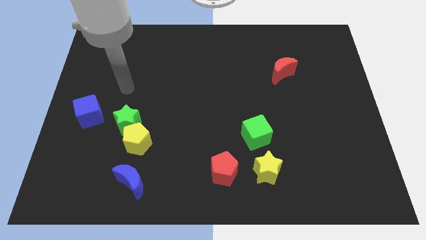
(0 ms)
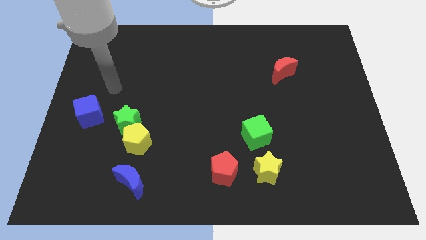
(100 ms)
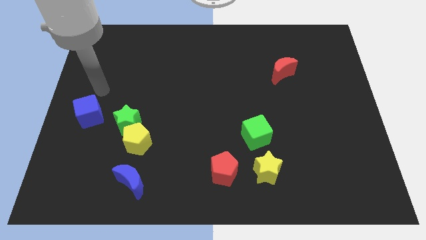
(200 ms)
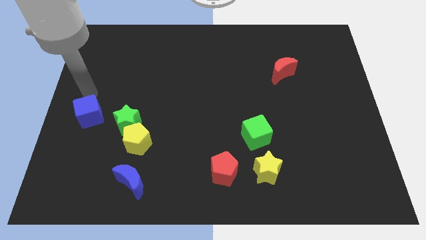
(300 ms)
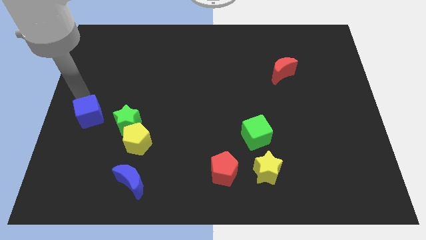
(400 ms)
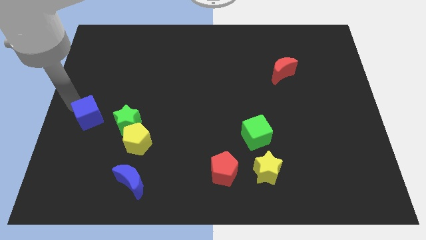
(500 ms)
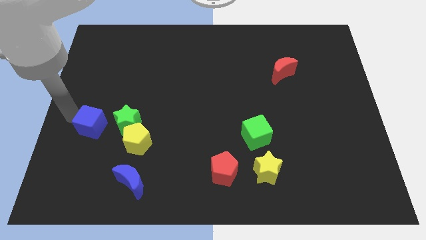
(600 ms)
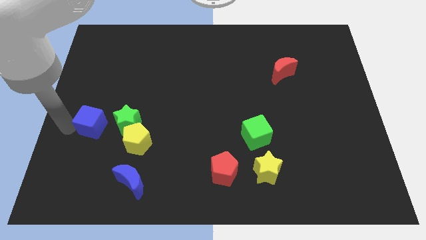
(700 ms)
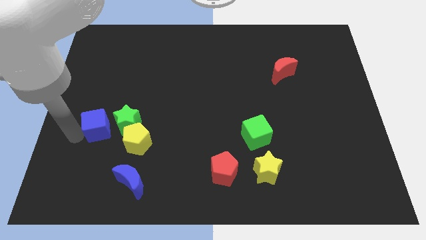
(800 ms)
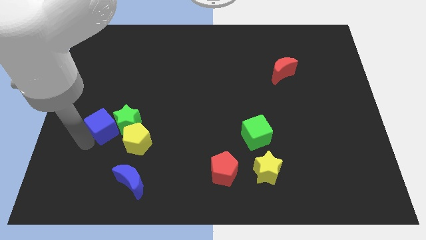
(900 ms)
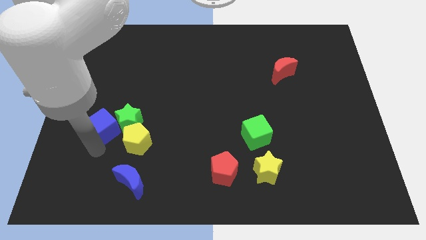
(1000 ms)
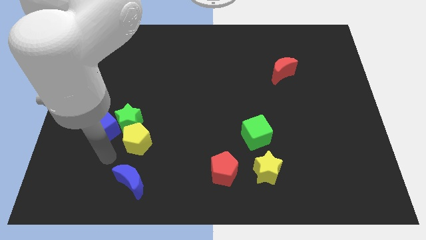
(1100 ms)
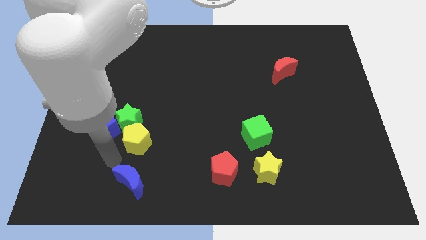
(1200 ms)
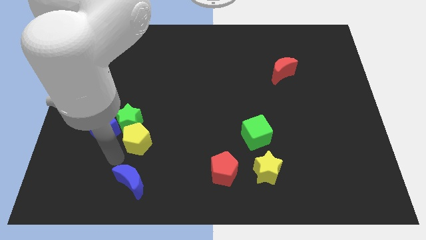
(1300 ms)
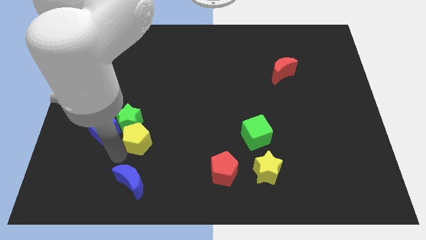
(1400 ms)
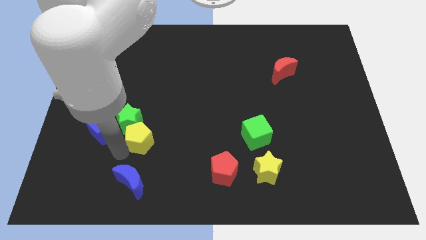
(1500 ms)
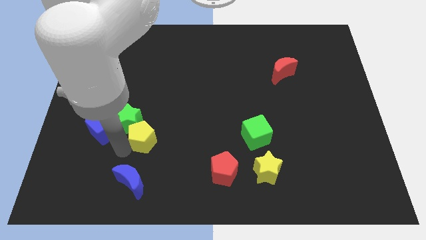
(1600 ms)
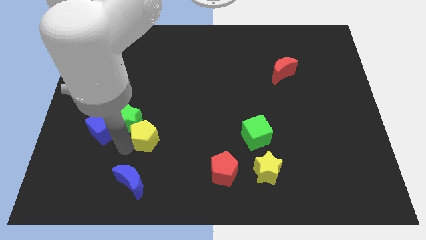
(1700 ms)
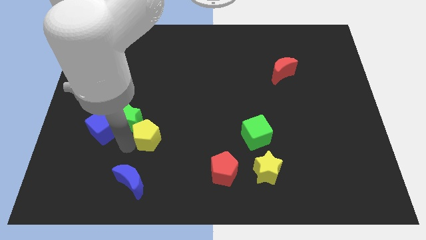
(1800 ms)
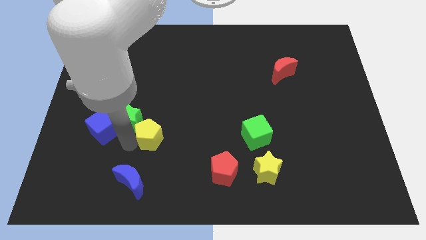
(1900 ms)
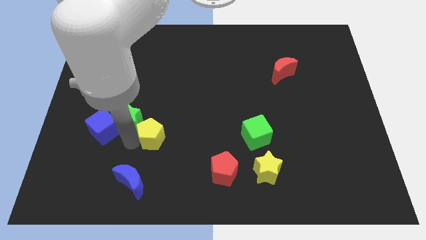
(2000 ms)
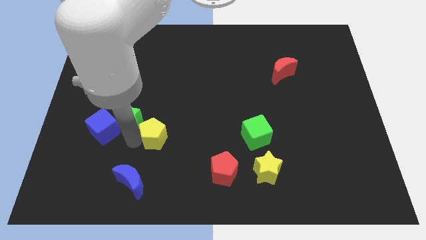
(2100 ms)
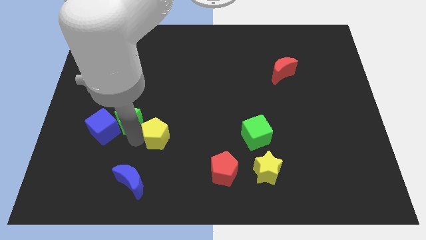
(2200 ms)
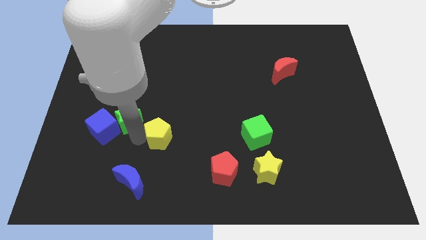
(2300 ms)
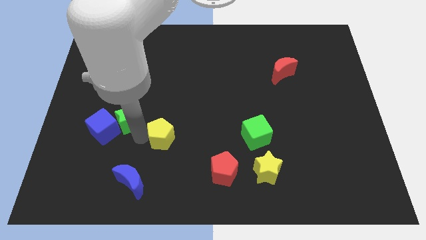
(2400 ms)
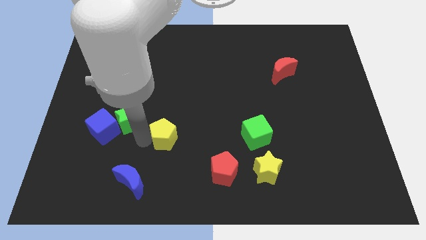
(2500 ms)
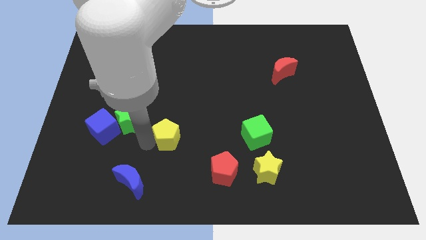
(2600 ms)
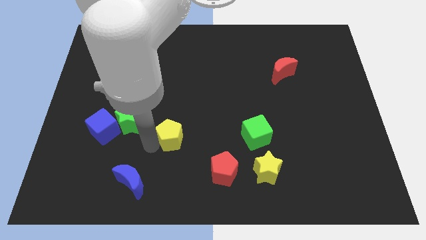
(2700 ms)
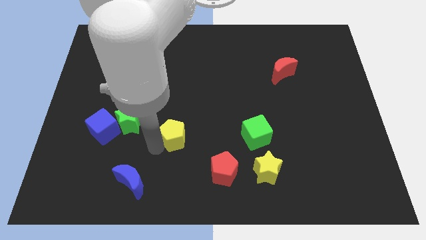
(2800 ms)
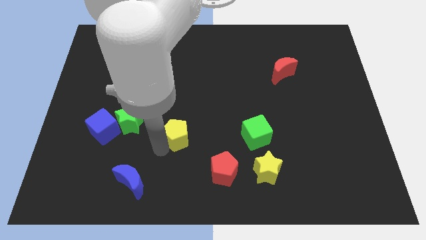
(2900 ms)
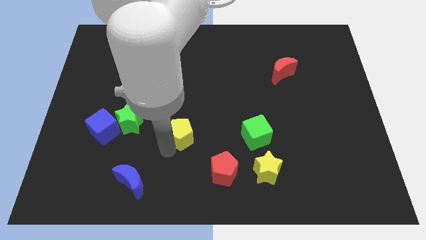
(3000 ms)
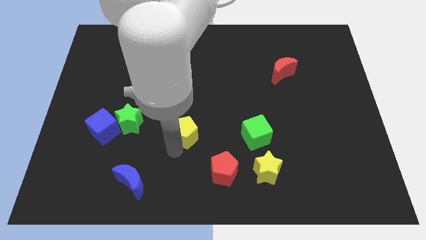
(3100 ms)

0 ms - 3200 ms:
push the yellow pentagon upwards and right a little bit

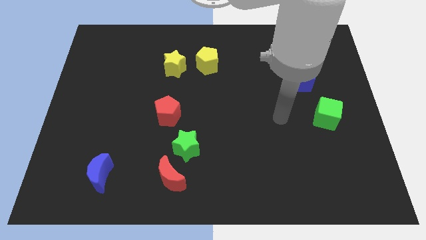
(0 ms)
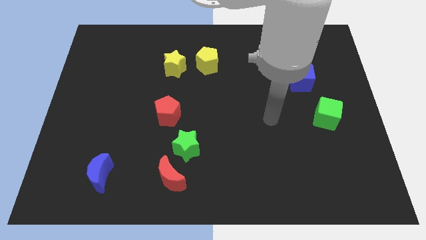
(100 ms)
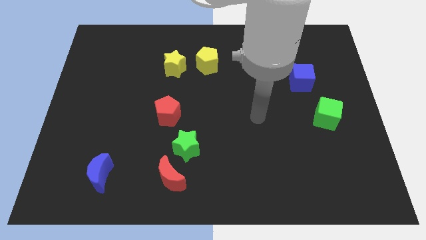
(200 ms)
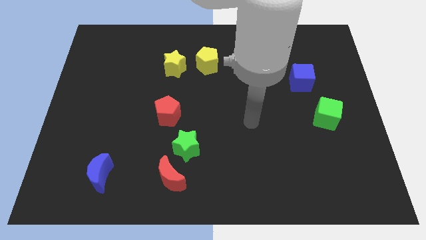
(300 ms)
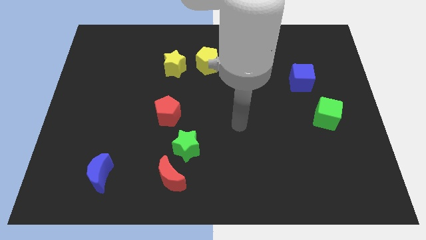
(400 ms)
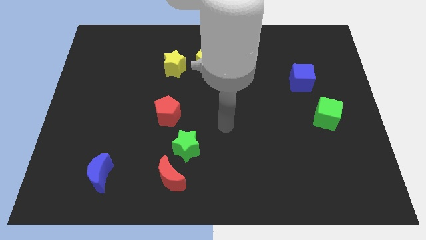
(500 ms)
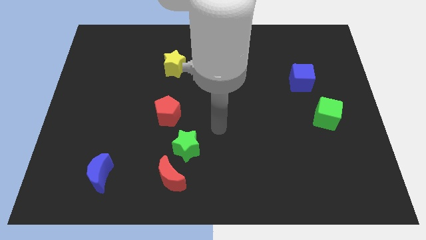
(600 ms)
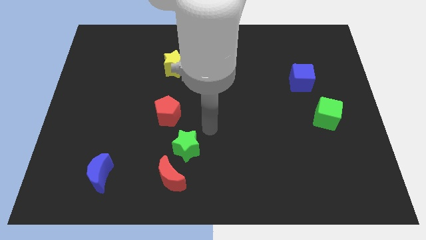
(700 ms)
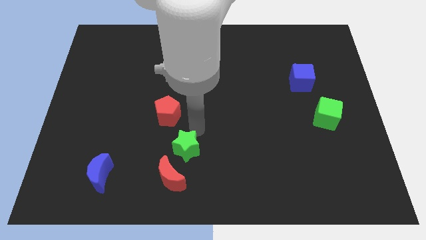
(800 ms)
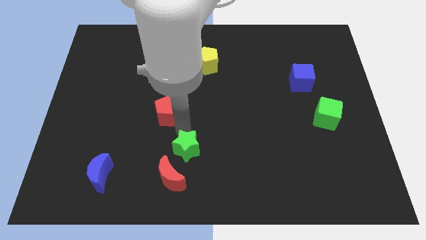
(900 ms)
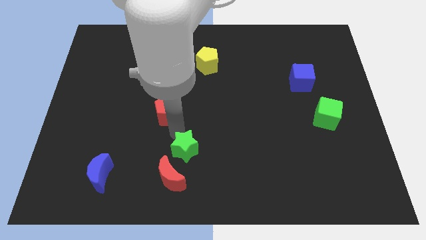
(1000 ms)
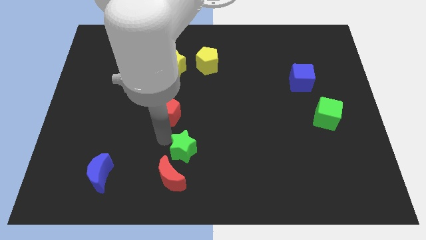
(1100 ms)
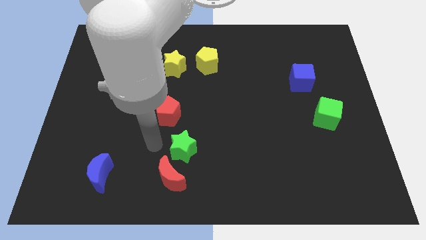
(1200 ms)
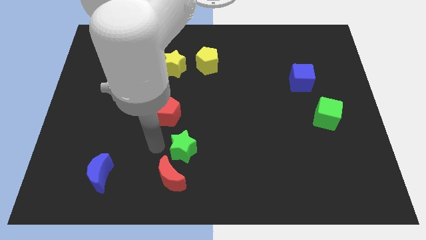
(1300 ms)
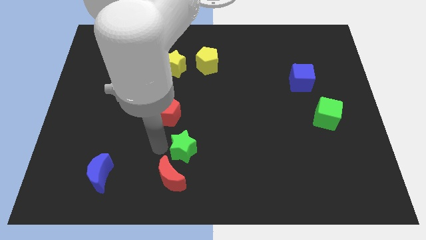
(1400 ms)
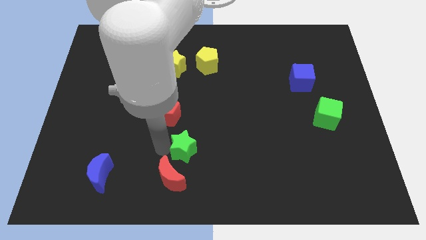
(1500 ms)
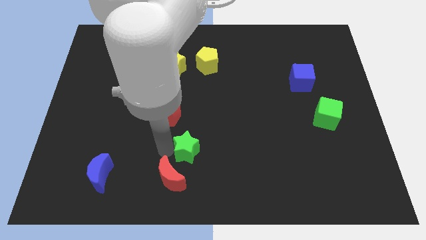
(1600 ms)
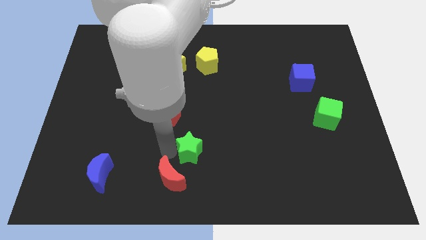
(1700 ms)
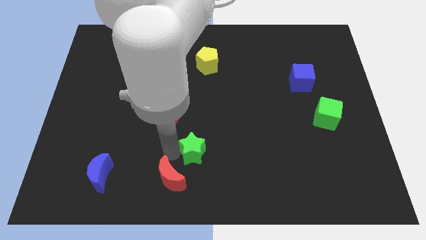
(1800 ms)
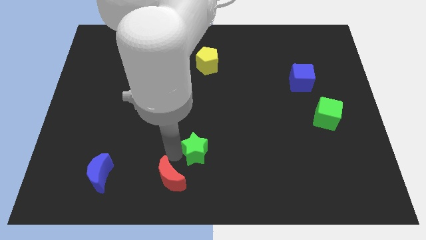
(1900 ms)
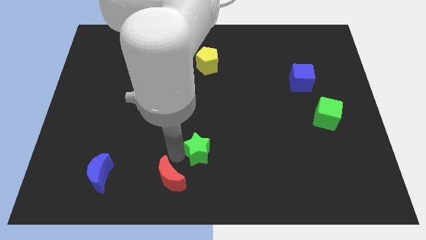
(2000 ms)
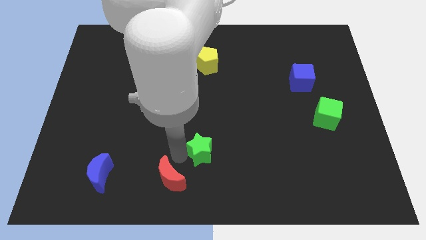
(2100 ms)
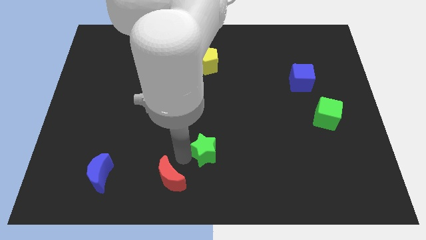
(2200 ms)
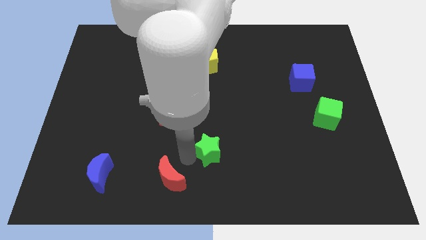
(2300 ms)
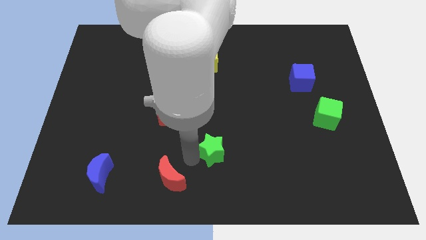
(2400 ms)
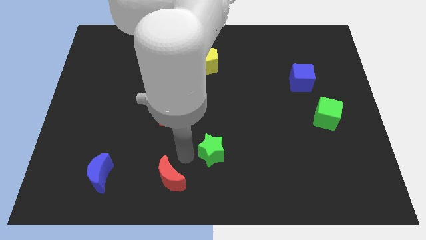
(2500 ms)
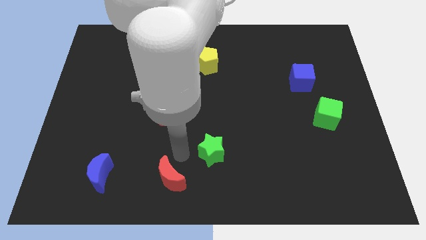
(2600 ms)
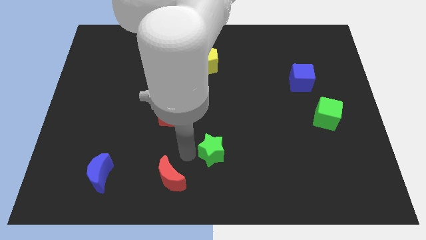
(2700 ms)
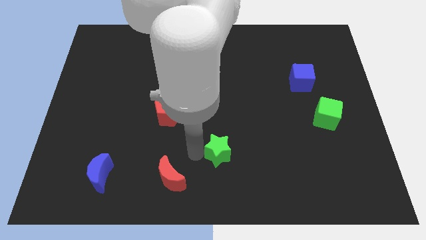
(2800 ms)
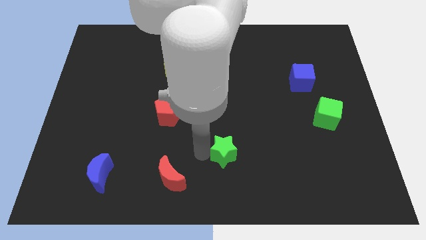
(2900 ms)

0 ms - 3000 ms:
slightly move the green star to the right

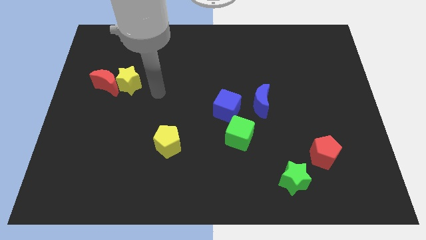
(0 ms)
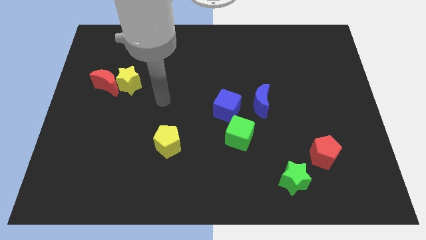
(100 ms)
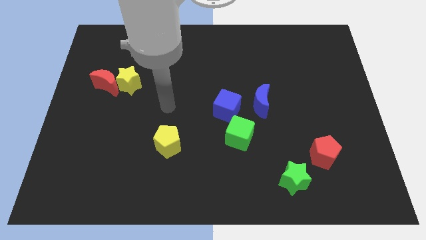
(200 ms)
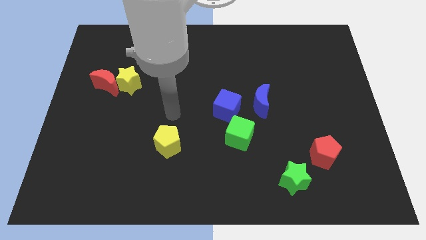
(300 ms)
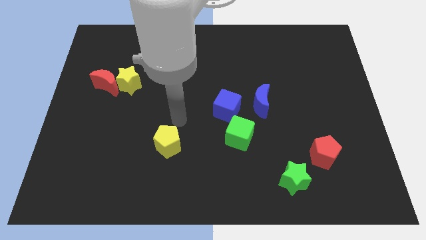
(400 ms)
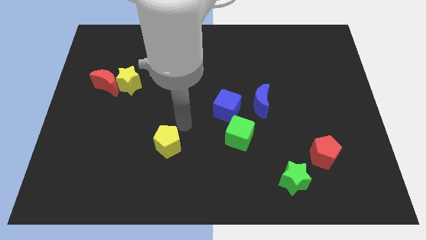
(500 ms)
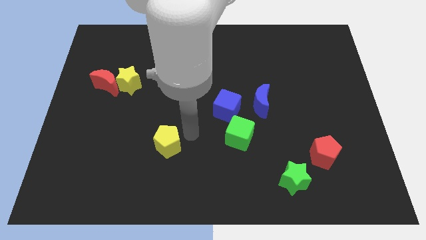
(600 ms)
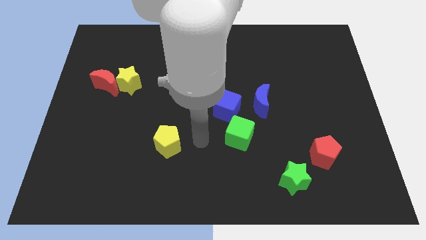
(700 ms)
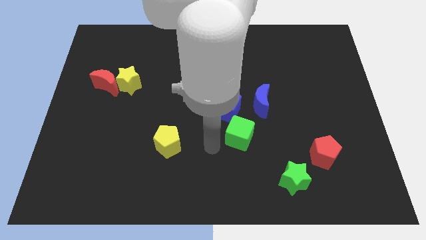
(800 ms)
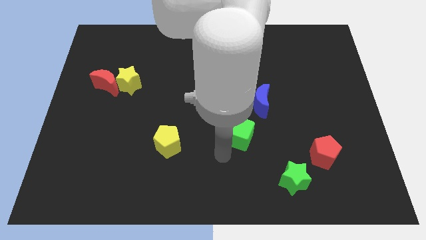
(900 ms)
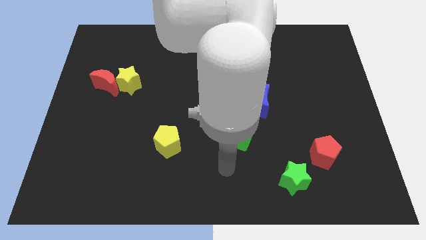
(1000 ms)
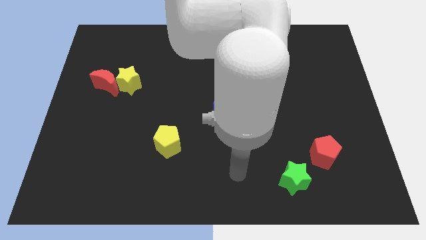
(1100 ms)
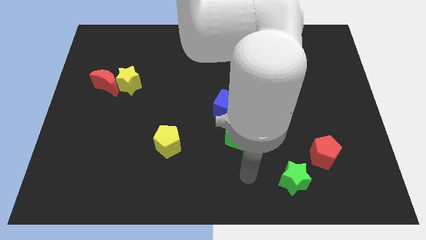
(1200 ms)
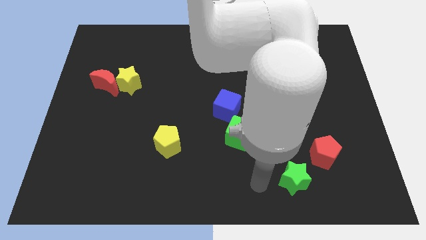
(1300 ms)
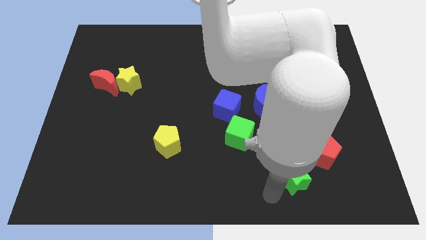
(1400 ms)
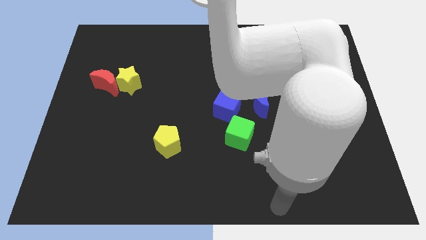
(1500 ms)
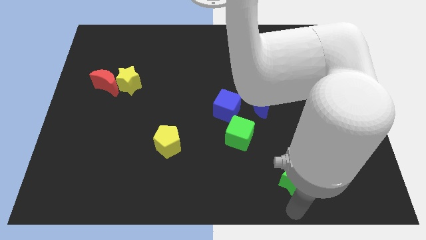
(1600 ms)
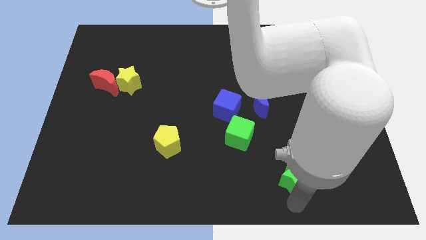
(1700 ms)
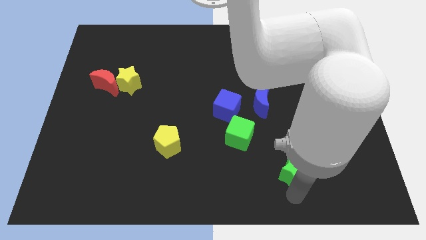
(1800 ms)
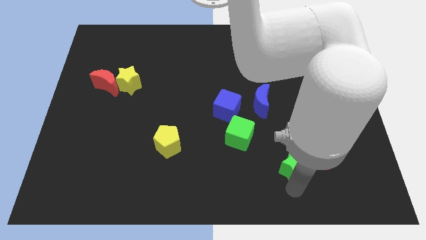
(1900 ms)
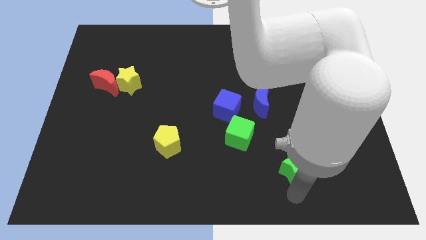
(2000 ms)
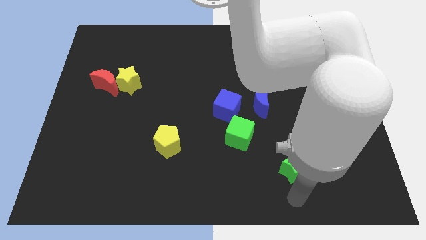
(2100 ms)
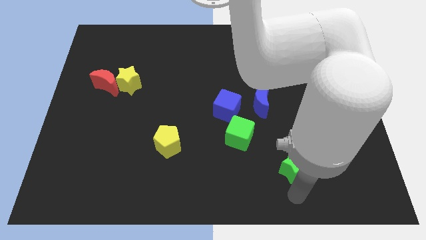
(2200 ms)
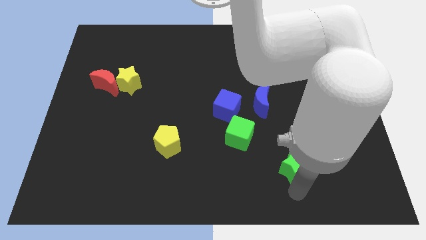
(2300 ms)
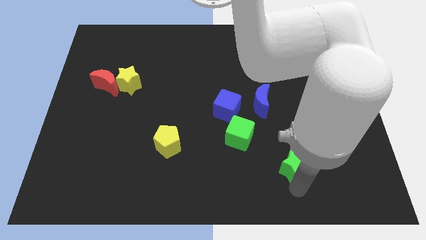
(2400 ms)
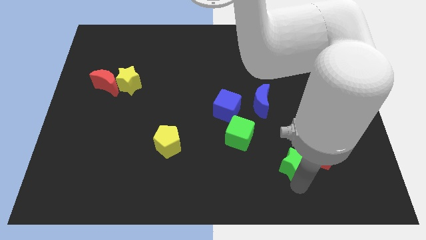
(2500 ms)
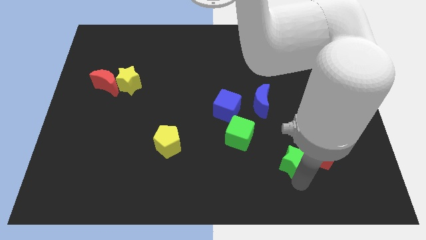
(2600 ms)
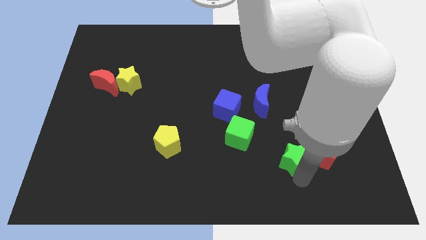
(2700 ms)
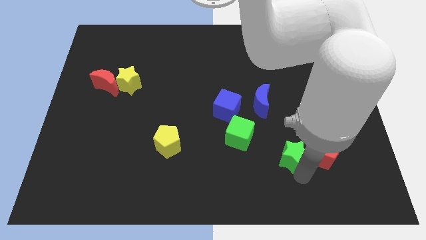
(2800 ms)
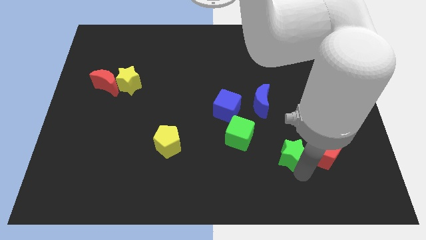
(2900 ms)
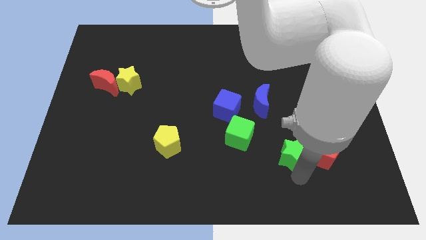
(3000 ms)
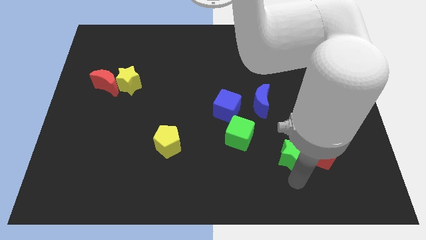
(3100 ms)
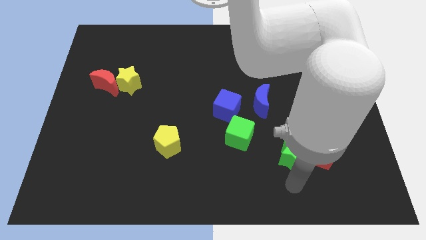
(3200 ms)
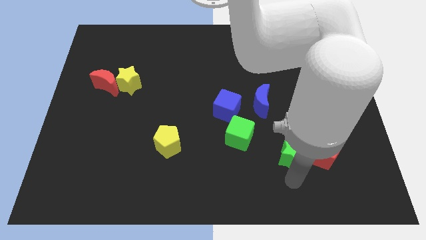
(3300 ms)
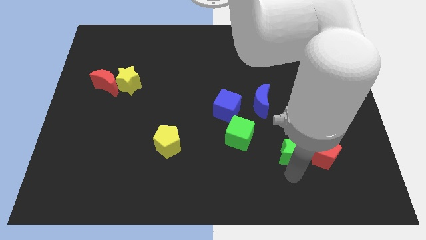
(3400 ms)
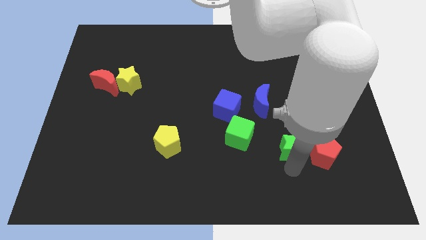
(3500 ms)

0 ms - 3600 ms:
slide the green star a little upwards
